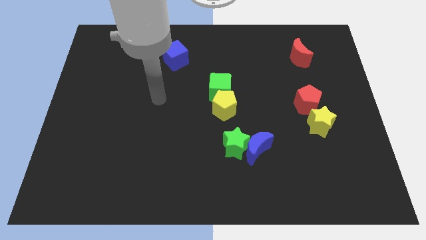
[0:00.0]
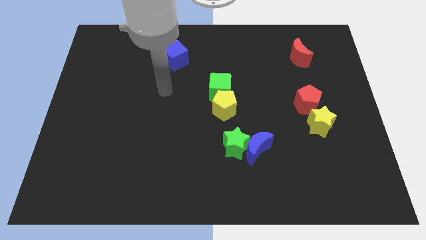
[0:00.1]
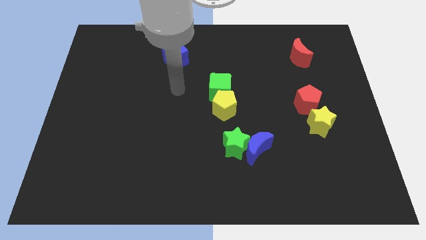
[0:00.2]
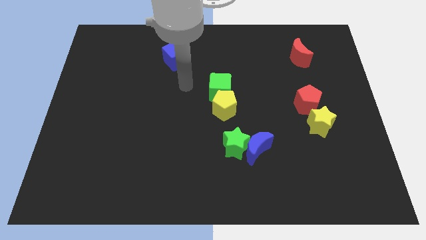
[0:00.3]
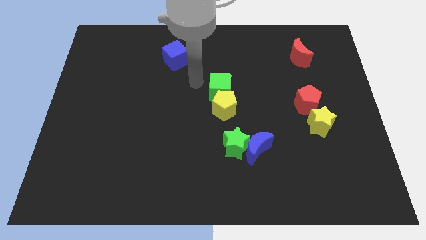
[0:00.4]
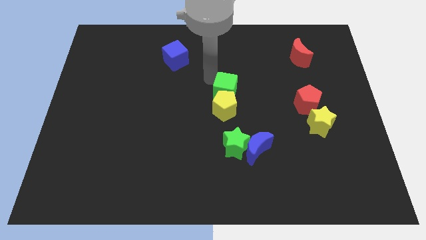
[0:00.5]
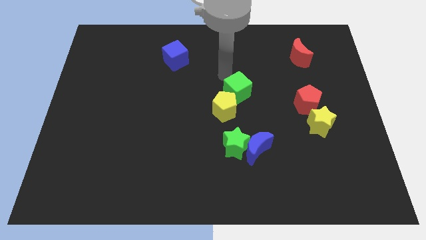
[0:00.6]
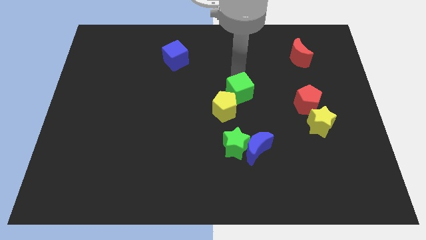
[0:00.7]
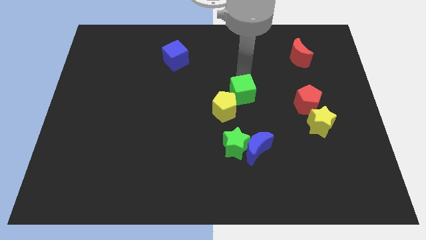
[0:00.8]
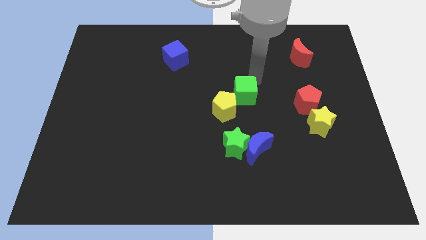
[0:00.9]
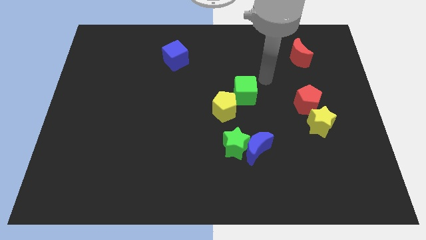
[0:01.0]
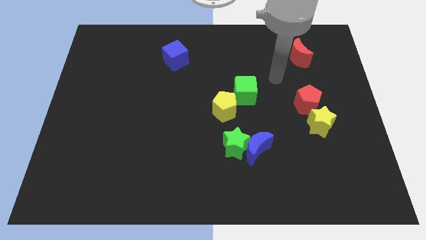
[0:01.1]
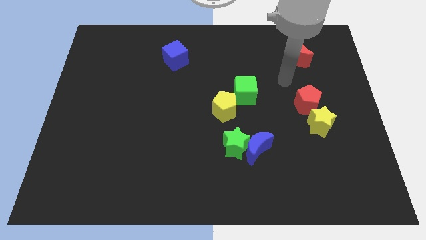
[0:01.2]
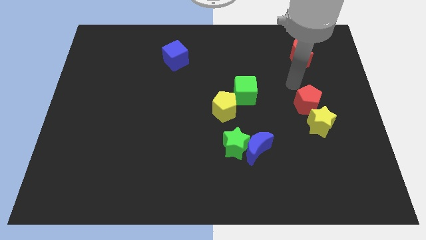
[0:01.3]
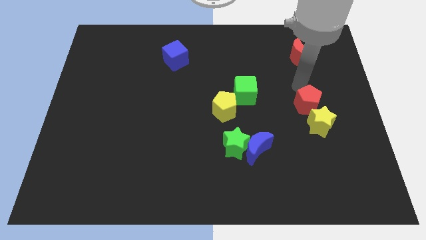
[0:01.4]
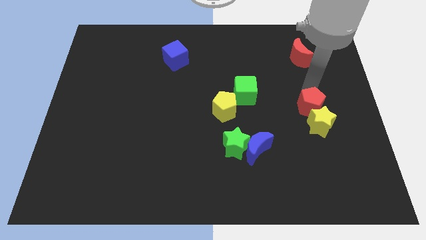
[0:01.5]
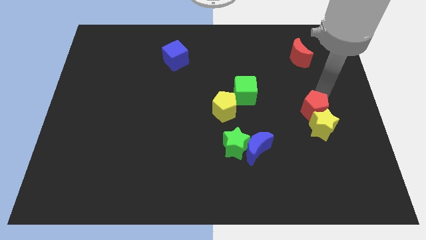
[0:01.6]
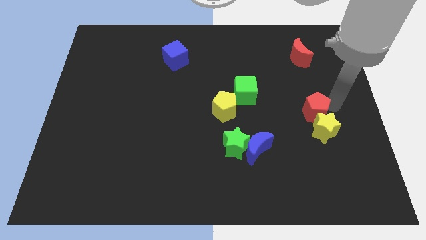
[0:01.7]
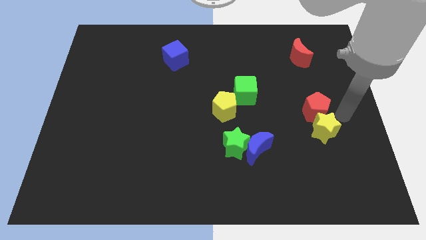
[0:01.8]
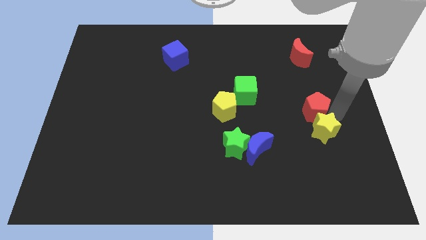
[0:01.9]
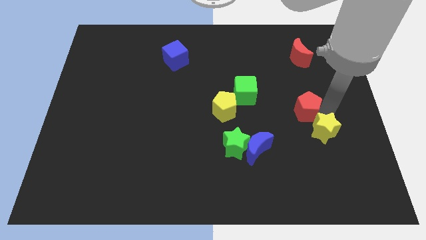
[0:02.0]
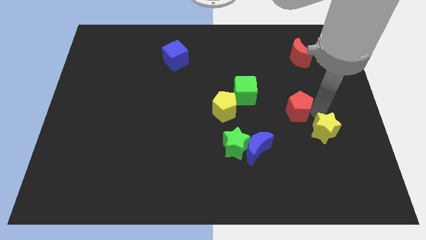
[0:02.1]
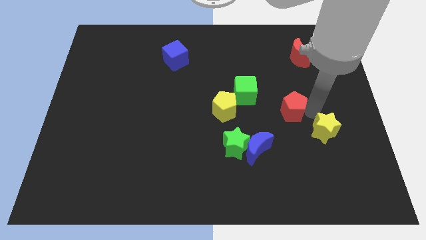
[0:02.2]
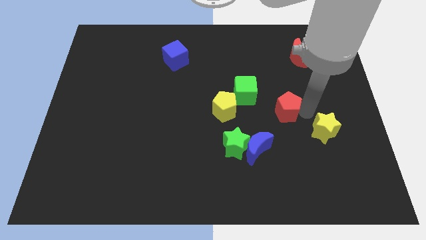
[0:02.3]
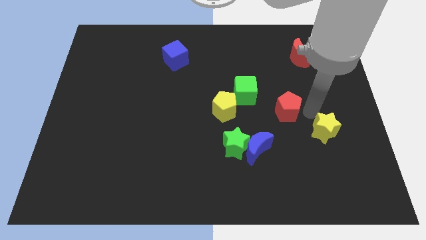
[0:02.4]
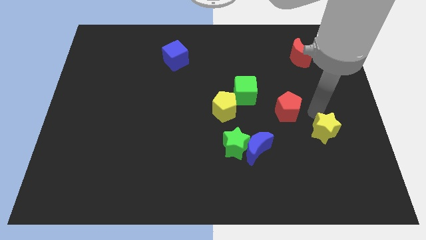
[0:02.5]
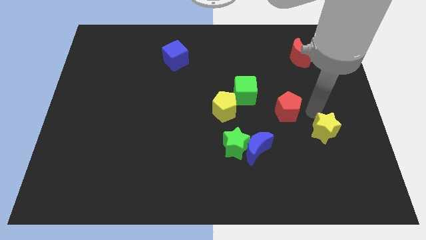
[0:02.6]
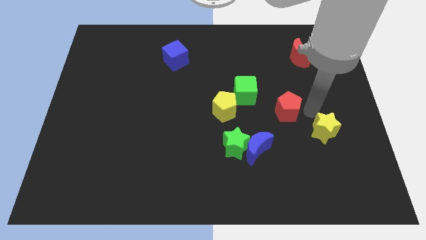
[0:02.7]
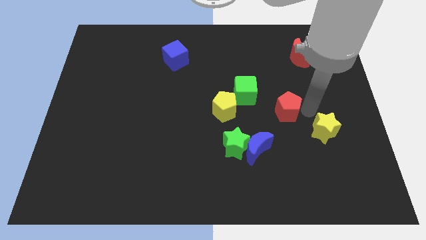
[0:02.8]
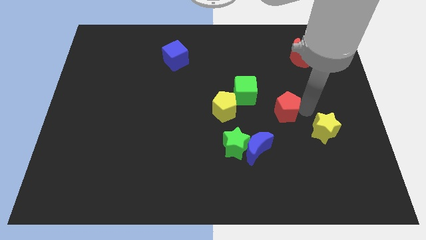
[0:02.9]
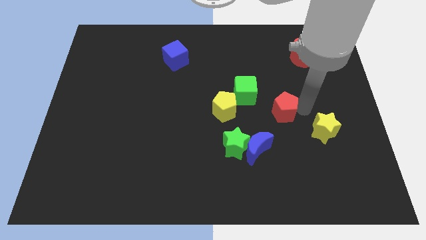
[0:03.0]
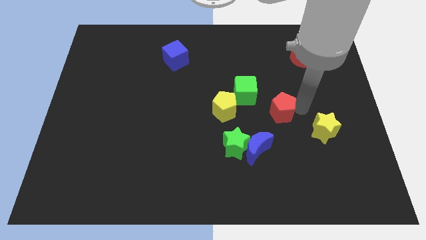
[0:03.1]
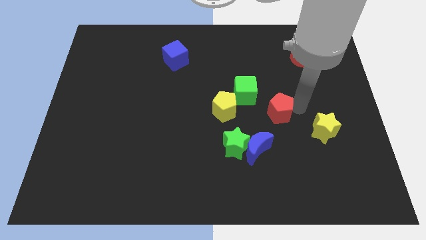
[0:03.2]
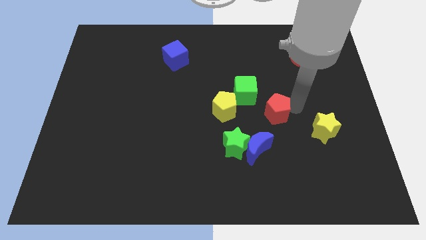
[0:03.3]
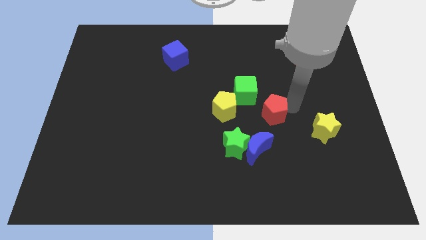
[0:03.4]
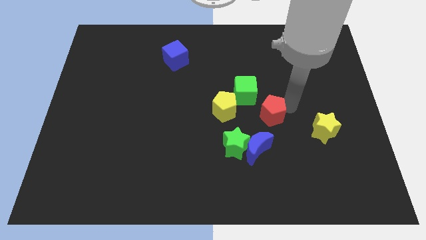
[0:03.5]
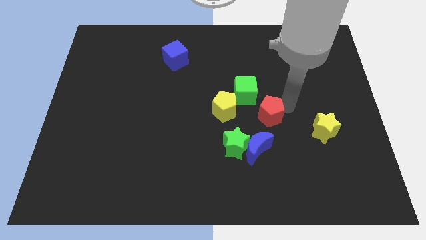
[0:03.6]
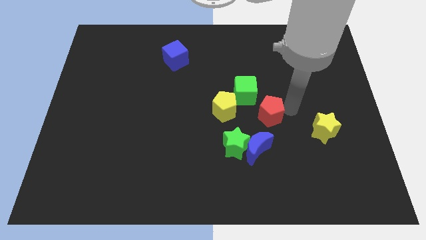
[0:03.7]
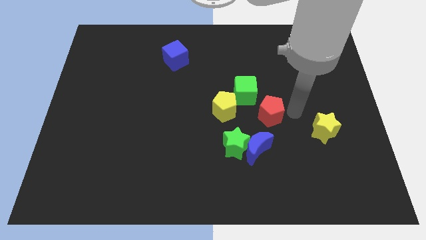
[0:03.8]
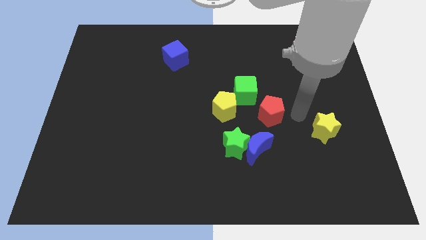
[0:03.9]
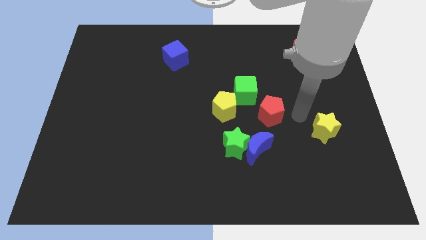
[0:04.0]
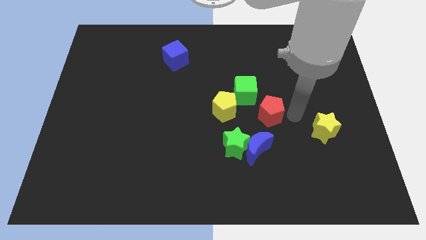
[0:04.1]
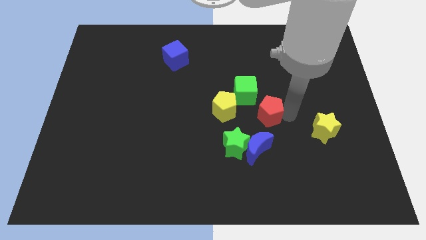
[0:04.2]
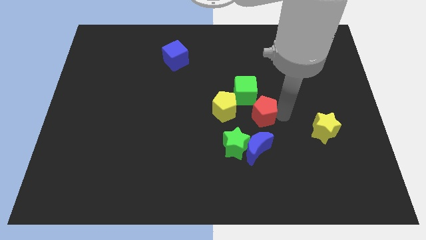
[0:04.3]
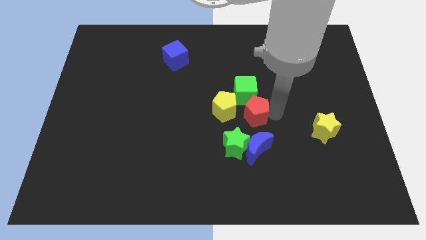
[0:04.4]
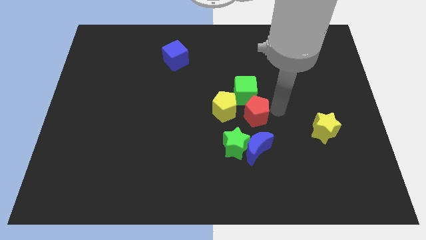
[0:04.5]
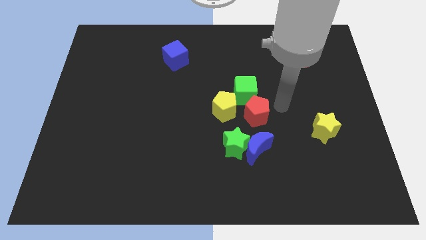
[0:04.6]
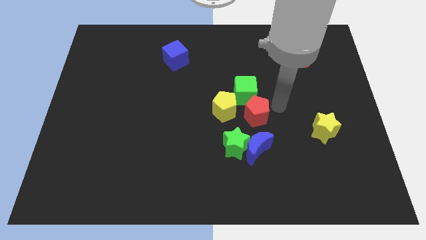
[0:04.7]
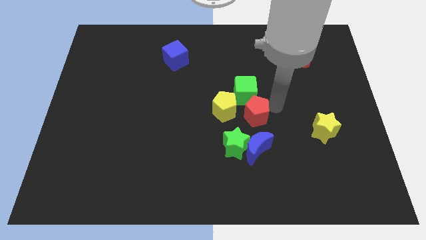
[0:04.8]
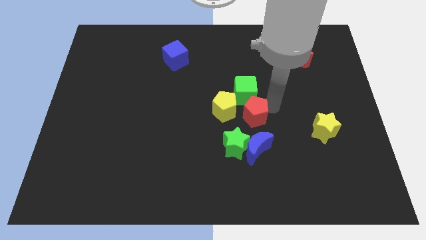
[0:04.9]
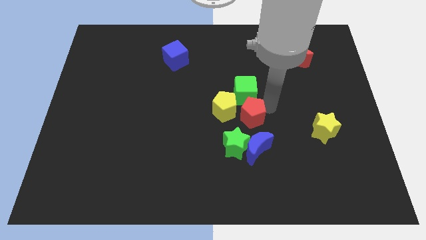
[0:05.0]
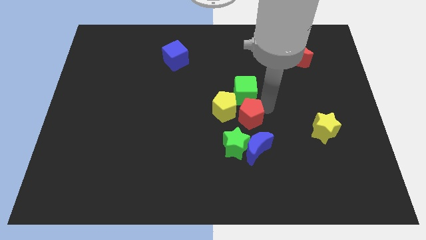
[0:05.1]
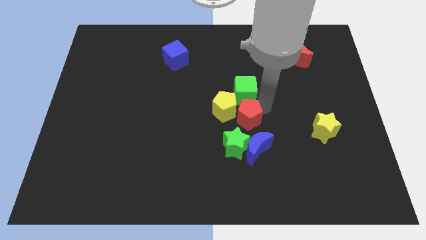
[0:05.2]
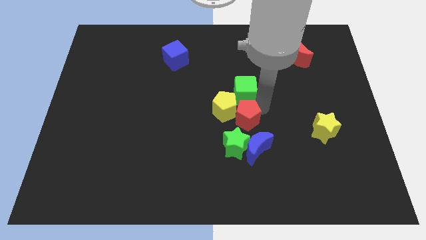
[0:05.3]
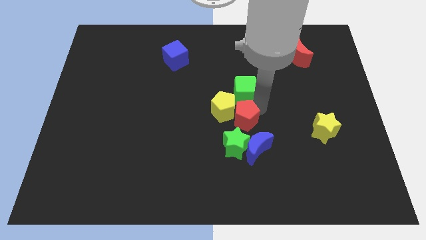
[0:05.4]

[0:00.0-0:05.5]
slide the red pentagon to the bottom left of the green cube

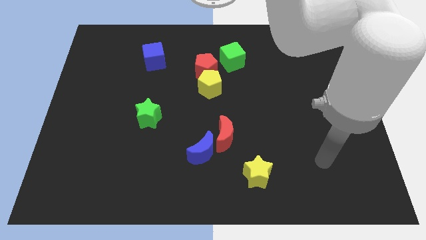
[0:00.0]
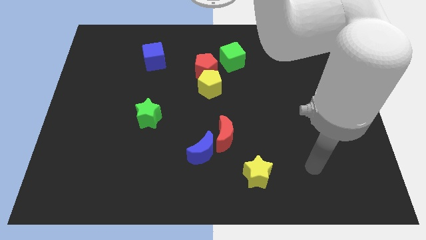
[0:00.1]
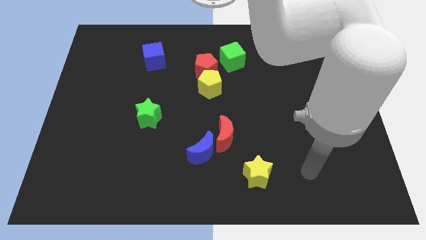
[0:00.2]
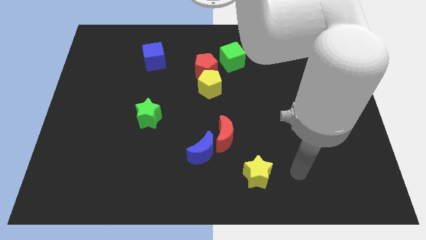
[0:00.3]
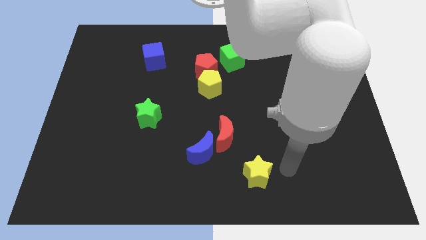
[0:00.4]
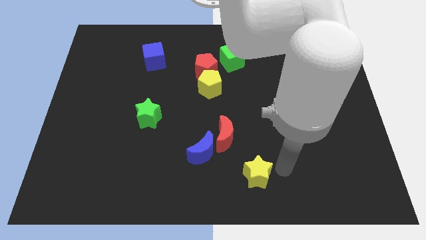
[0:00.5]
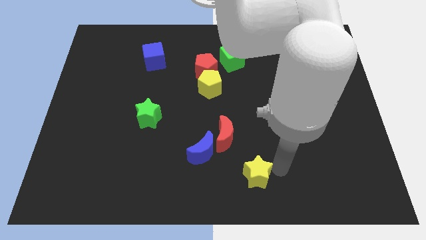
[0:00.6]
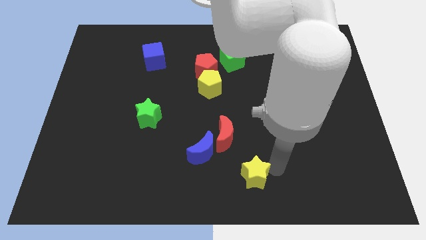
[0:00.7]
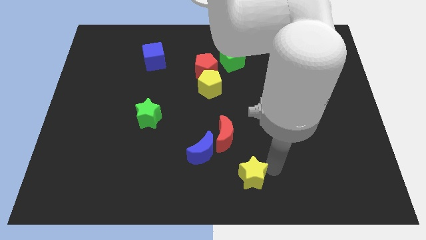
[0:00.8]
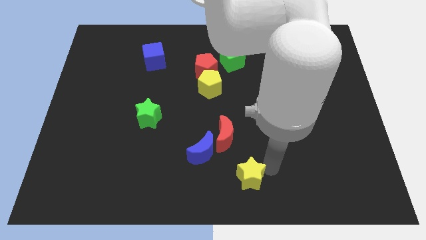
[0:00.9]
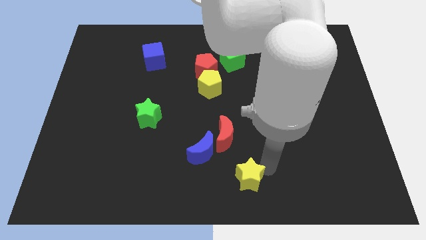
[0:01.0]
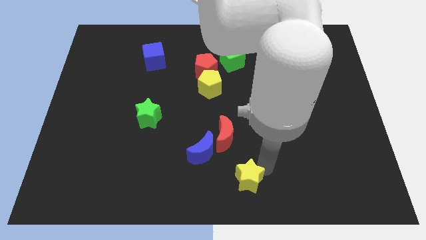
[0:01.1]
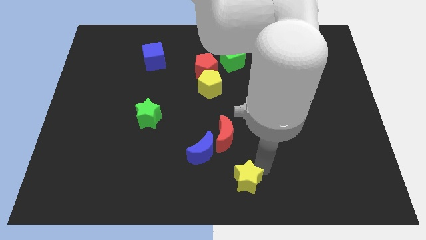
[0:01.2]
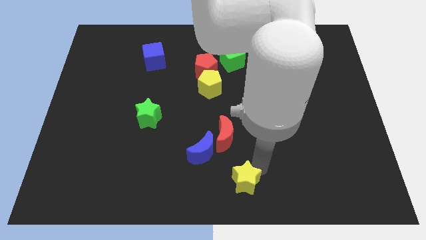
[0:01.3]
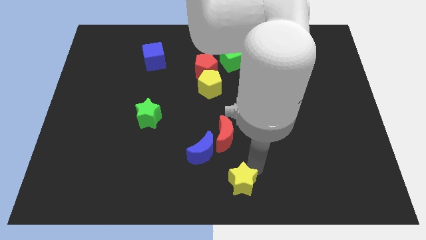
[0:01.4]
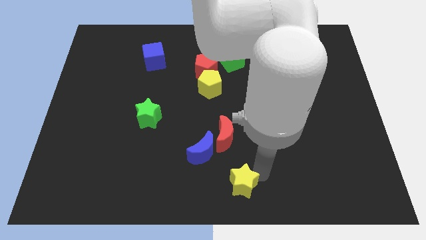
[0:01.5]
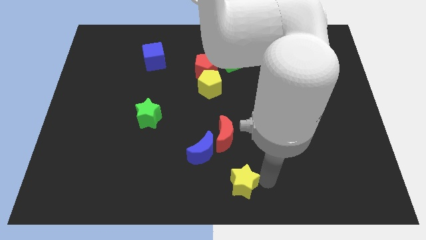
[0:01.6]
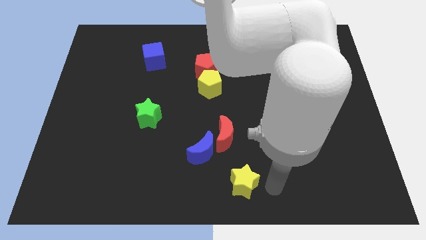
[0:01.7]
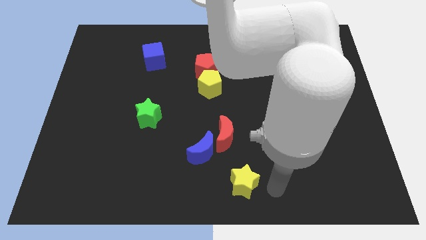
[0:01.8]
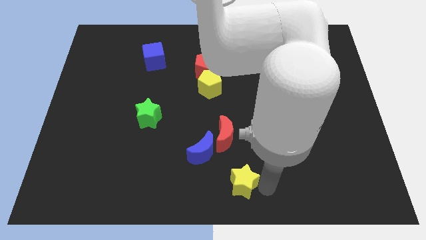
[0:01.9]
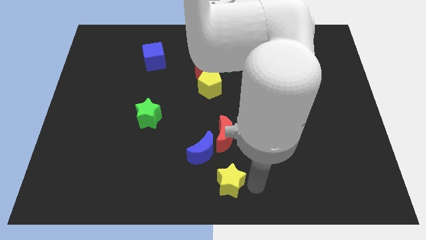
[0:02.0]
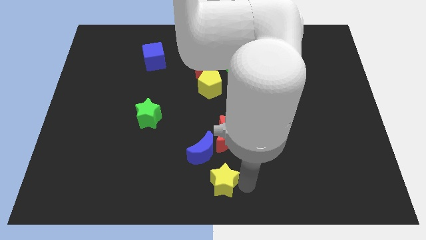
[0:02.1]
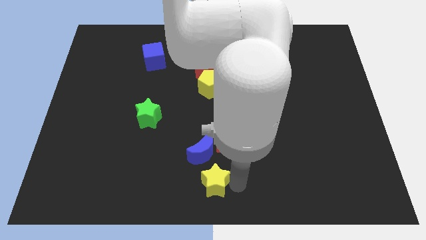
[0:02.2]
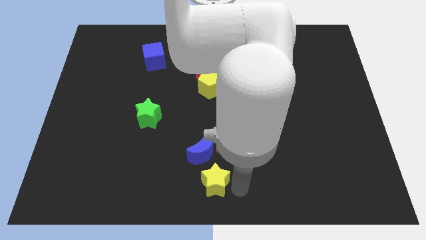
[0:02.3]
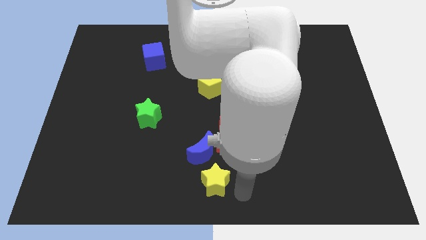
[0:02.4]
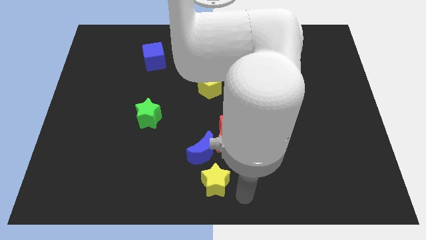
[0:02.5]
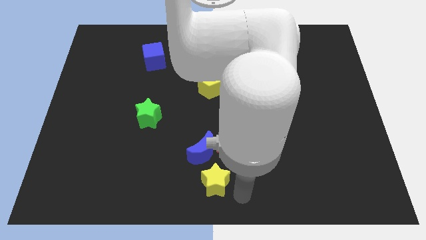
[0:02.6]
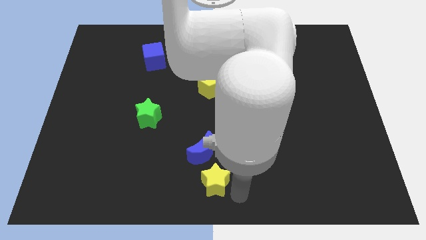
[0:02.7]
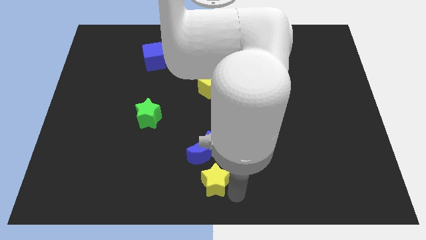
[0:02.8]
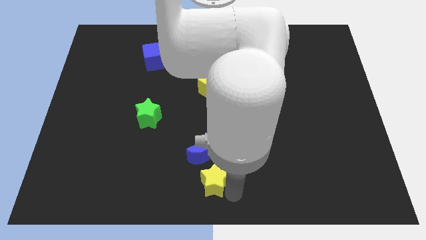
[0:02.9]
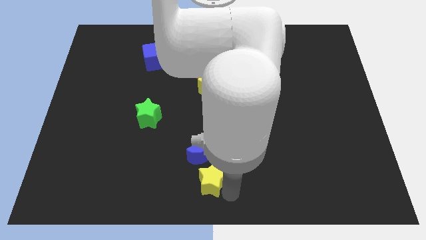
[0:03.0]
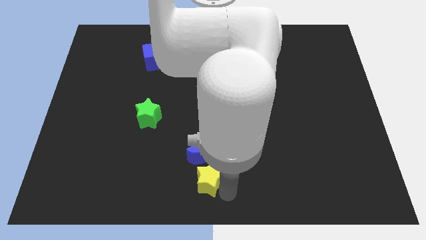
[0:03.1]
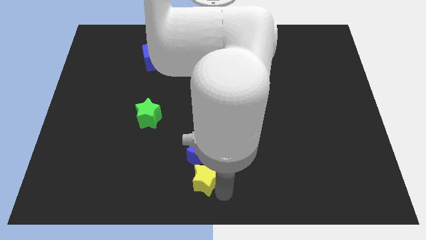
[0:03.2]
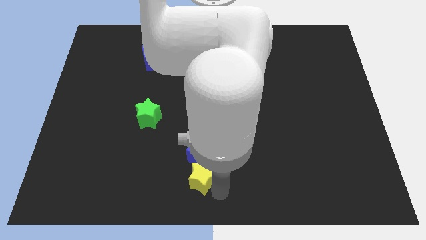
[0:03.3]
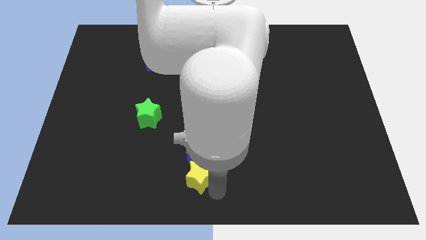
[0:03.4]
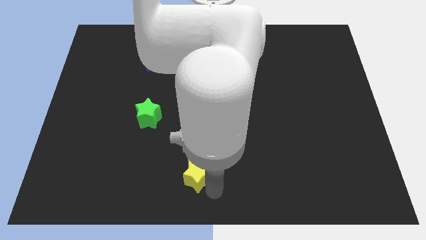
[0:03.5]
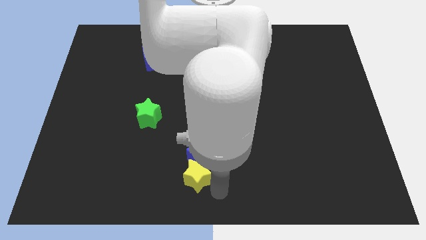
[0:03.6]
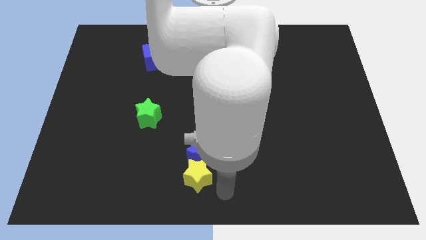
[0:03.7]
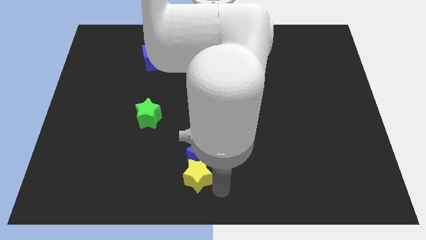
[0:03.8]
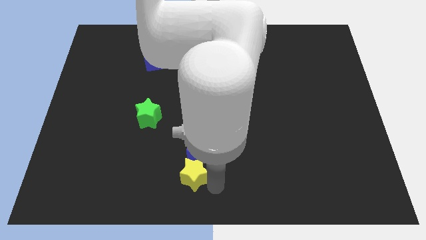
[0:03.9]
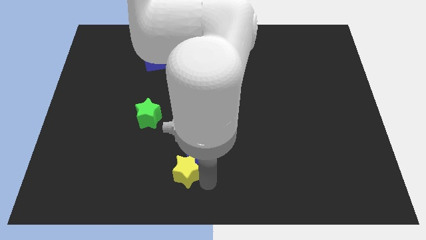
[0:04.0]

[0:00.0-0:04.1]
push the yellow star left of the blue moon
